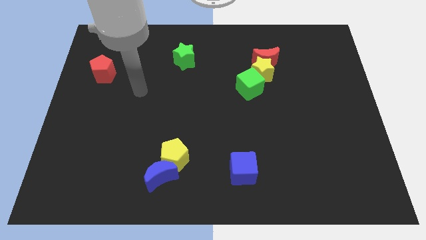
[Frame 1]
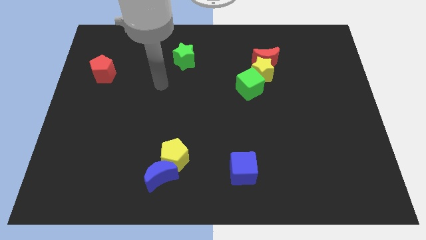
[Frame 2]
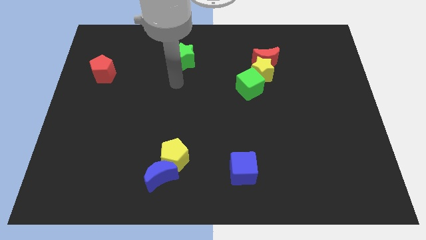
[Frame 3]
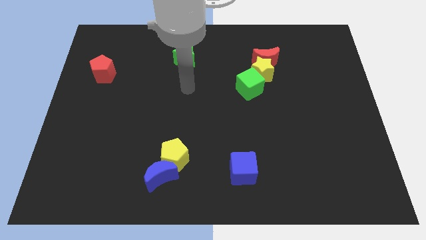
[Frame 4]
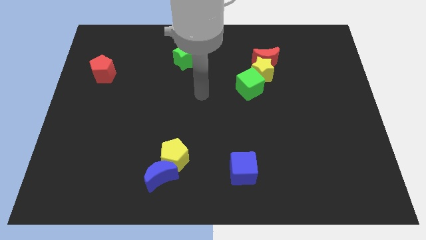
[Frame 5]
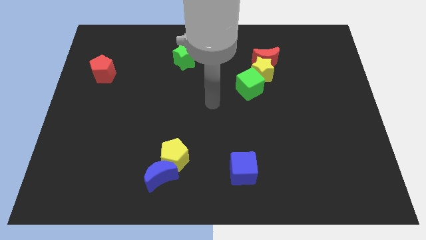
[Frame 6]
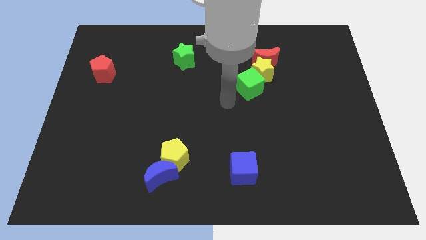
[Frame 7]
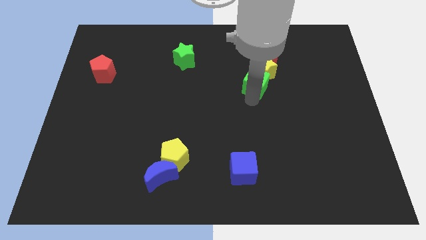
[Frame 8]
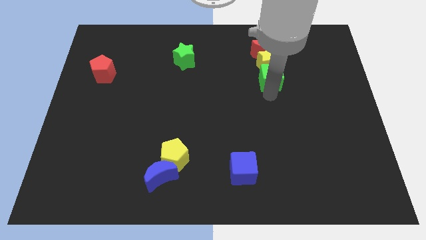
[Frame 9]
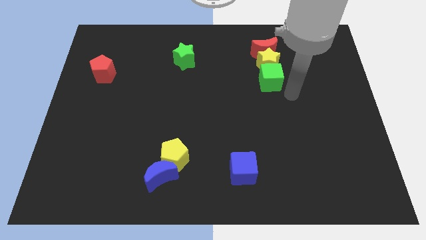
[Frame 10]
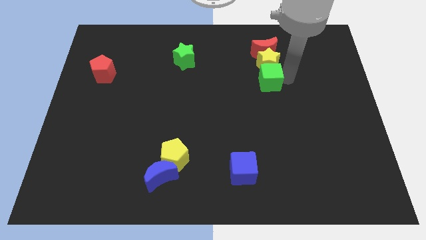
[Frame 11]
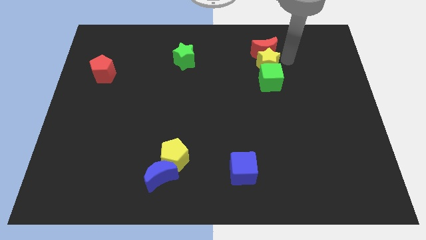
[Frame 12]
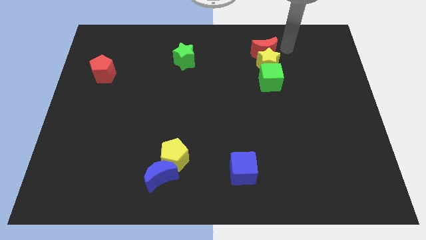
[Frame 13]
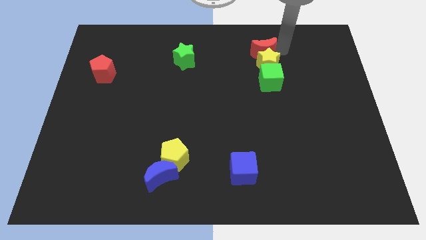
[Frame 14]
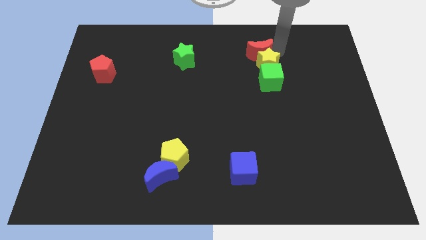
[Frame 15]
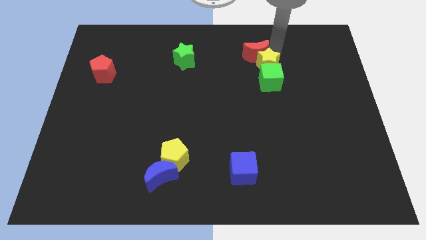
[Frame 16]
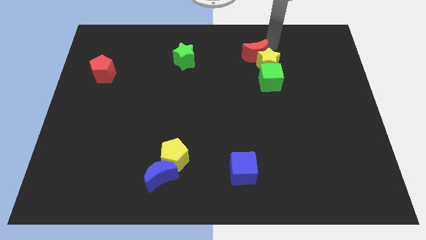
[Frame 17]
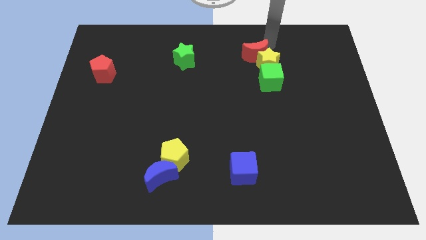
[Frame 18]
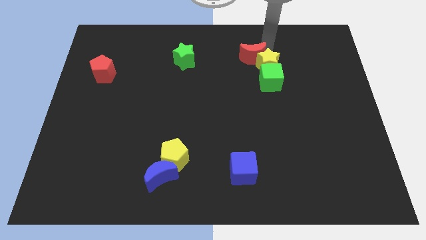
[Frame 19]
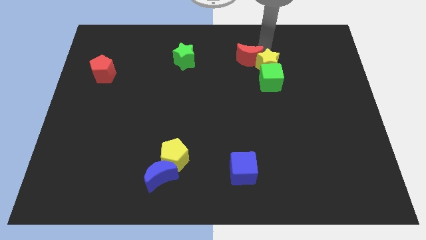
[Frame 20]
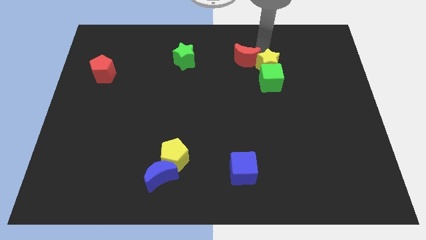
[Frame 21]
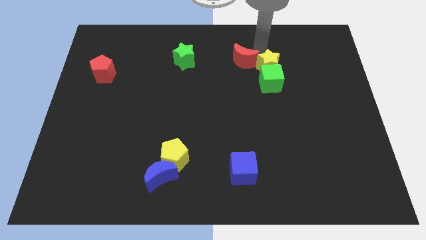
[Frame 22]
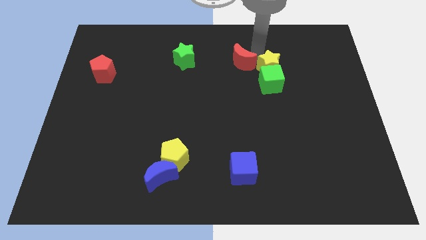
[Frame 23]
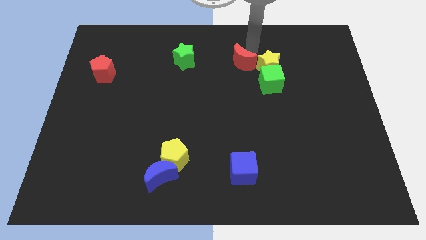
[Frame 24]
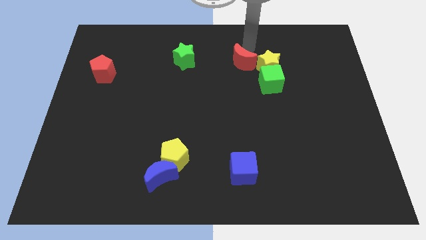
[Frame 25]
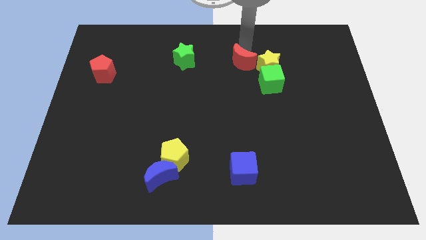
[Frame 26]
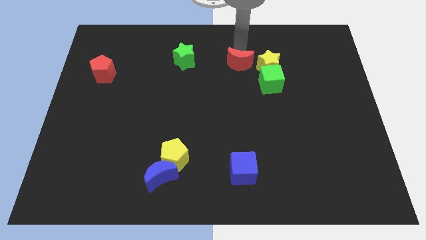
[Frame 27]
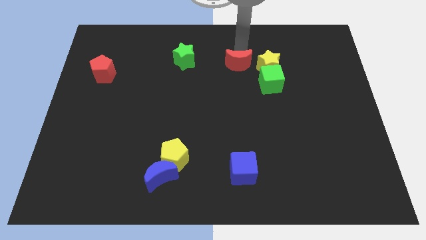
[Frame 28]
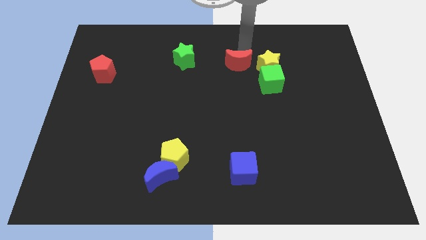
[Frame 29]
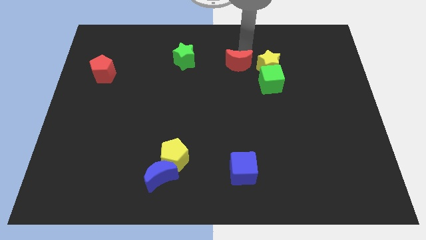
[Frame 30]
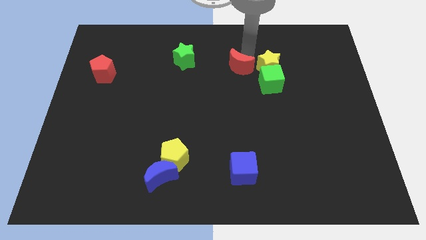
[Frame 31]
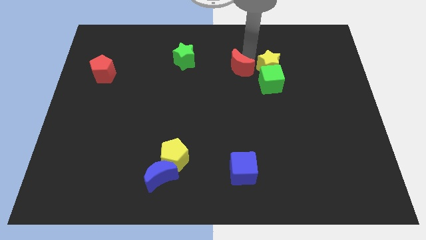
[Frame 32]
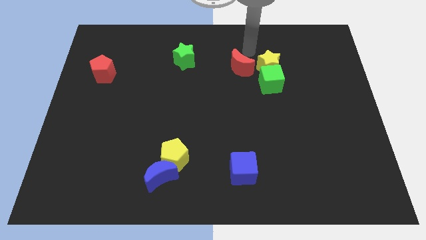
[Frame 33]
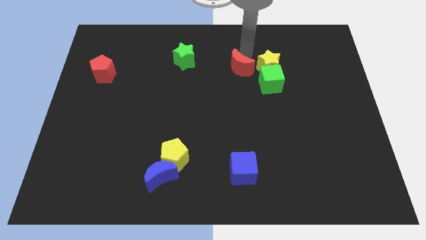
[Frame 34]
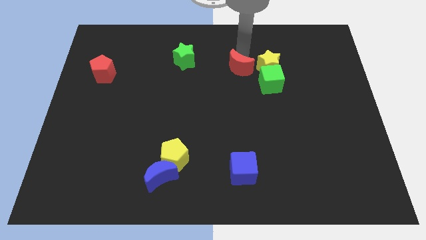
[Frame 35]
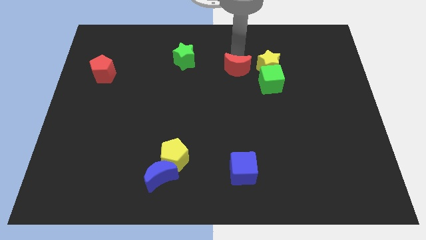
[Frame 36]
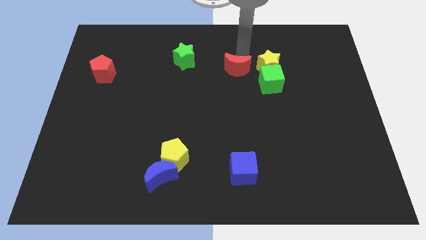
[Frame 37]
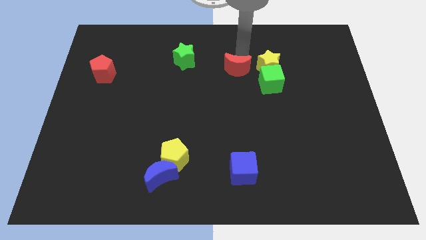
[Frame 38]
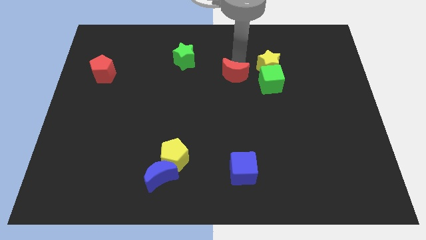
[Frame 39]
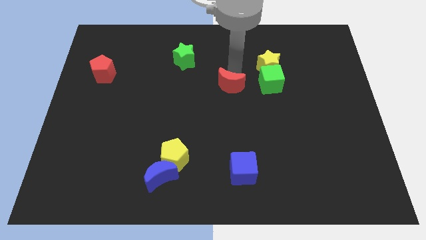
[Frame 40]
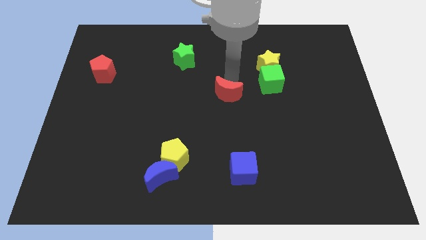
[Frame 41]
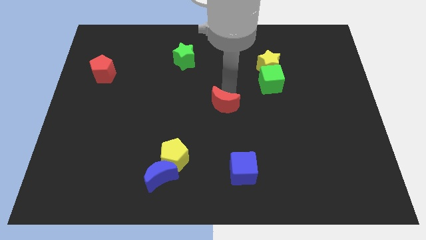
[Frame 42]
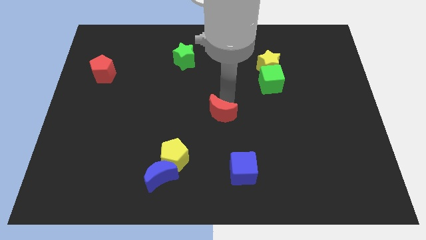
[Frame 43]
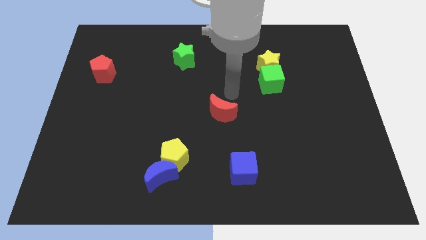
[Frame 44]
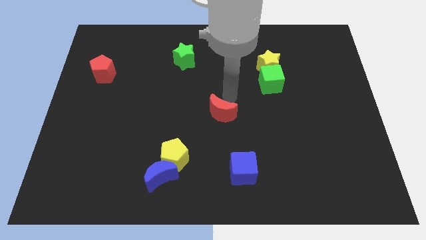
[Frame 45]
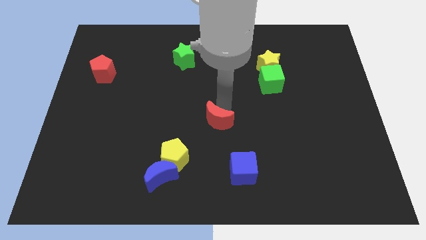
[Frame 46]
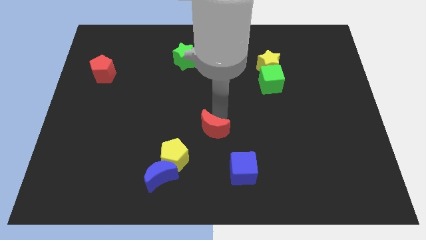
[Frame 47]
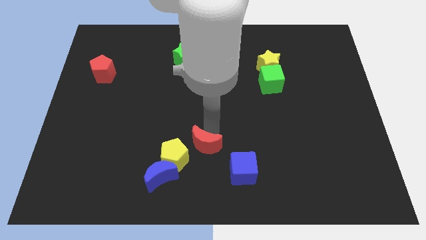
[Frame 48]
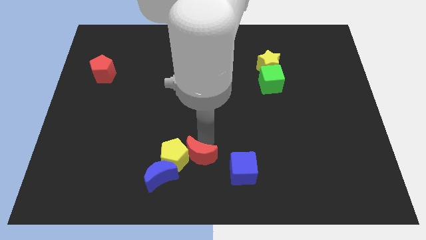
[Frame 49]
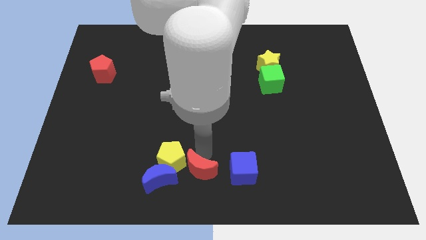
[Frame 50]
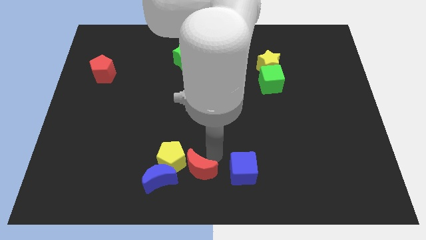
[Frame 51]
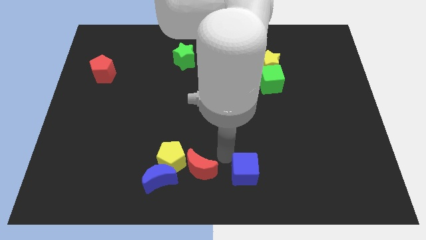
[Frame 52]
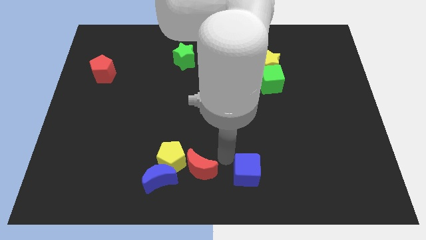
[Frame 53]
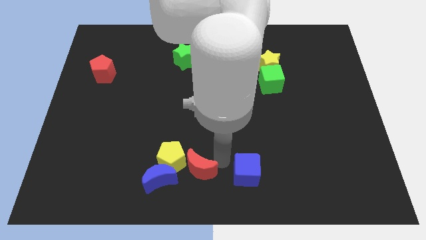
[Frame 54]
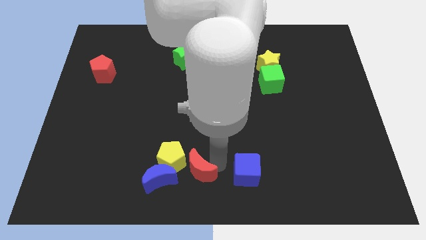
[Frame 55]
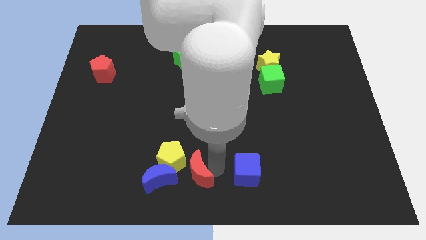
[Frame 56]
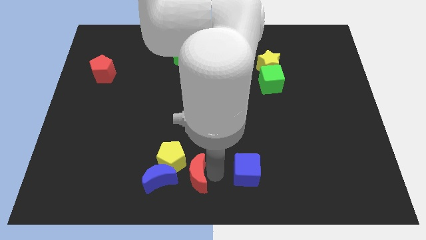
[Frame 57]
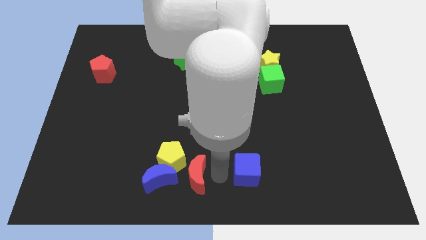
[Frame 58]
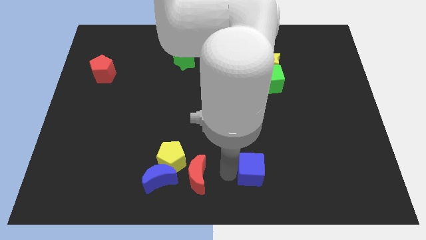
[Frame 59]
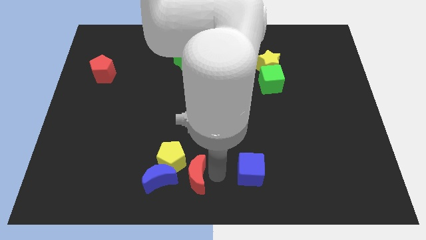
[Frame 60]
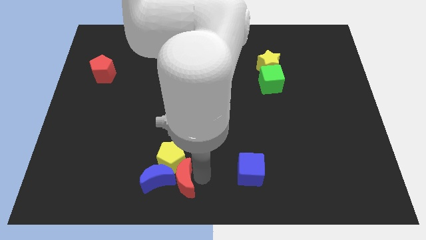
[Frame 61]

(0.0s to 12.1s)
move the red moon next to the blue moon
